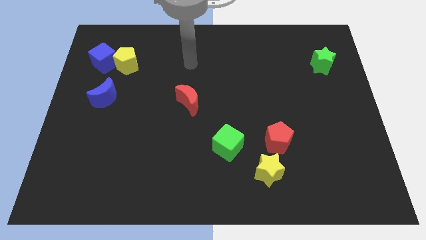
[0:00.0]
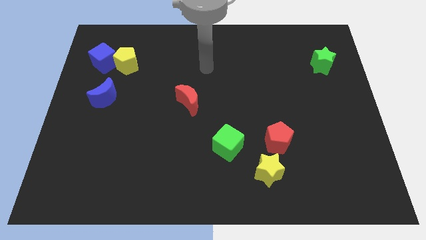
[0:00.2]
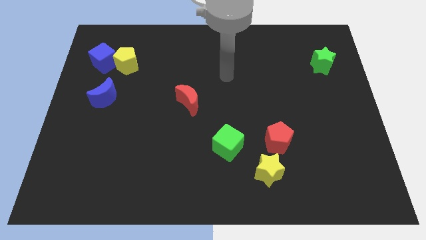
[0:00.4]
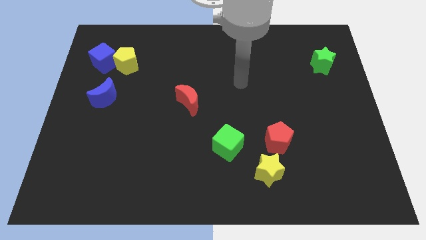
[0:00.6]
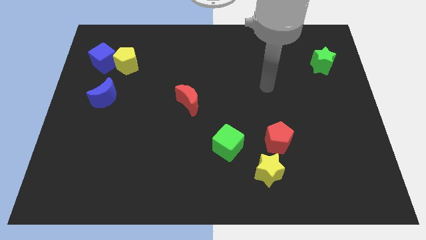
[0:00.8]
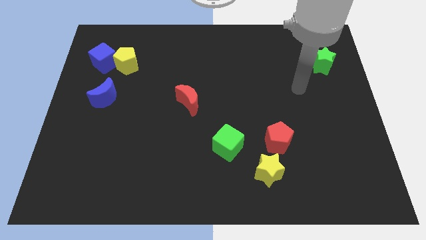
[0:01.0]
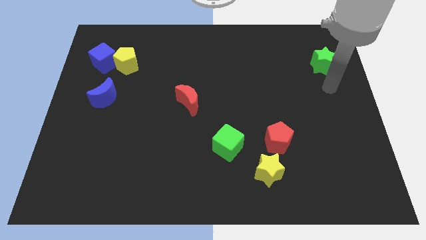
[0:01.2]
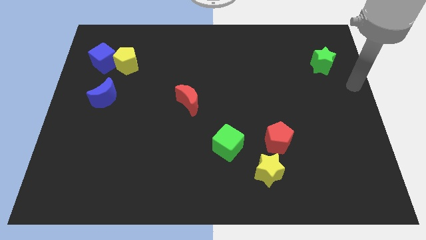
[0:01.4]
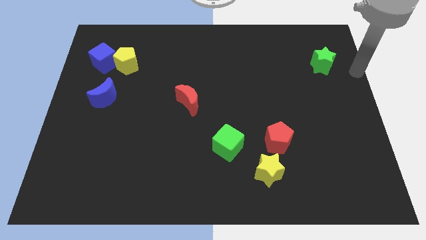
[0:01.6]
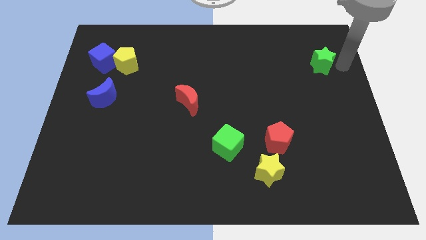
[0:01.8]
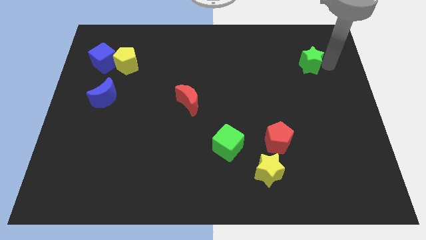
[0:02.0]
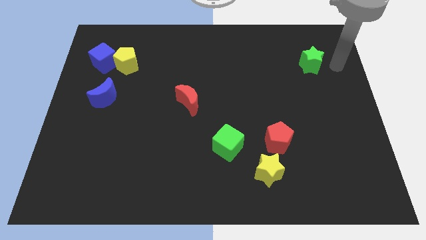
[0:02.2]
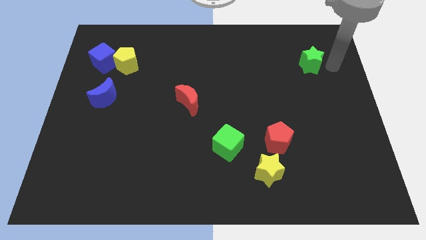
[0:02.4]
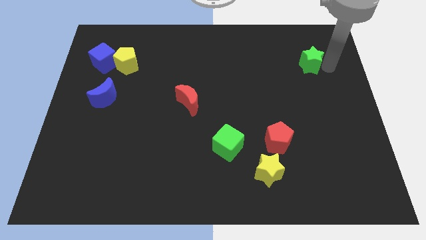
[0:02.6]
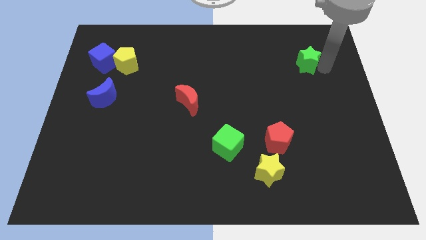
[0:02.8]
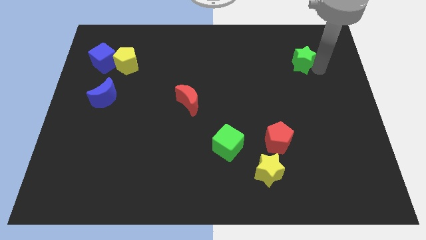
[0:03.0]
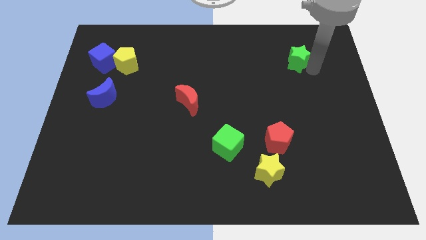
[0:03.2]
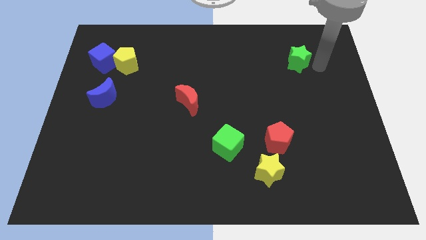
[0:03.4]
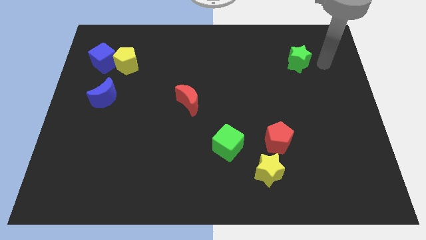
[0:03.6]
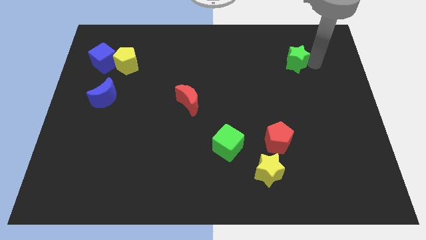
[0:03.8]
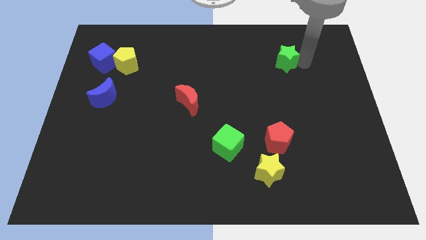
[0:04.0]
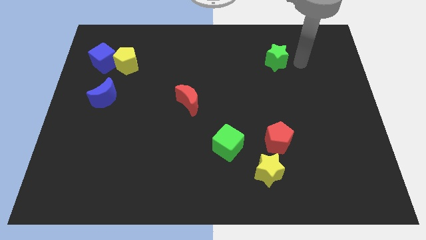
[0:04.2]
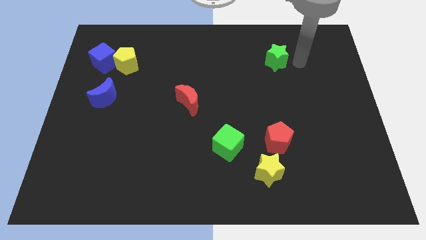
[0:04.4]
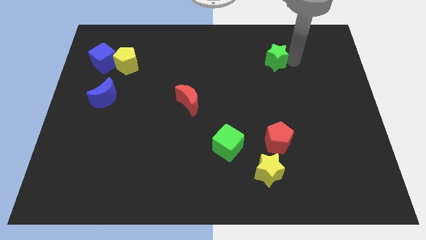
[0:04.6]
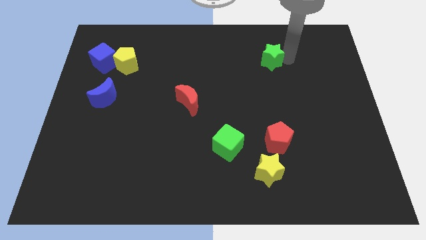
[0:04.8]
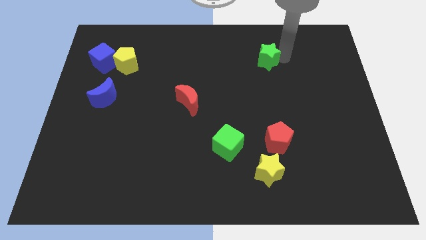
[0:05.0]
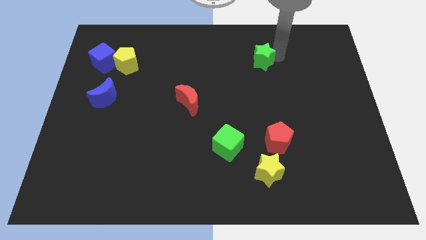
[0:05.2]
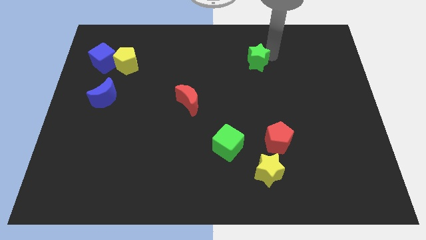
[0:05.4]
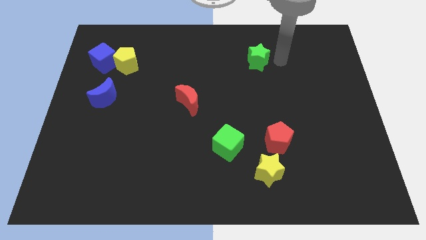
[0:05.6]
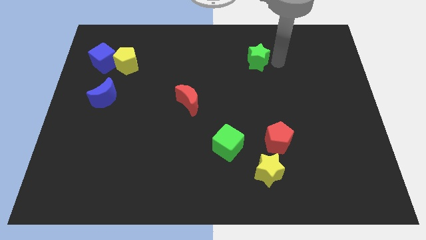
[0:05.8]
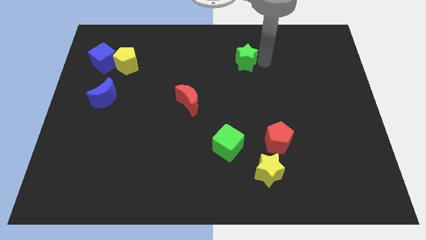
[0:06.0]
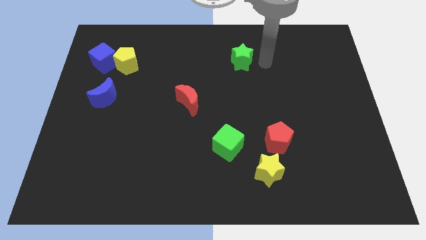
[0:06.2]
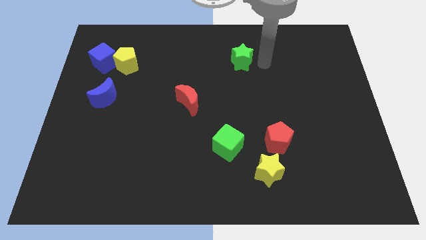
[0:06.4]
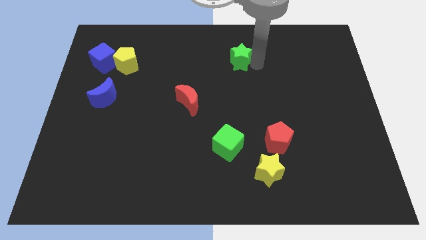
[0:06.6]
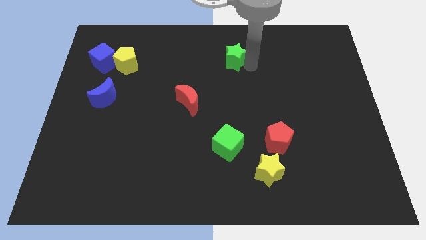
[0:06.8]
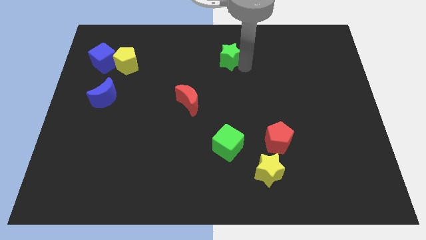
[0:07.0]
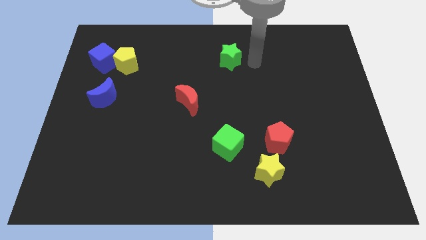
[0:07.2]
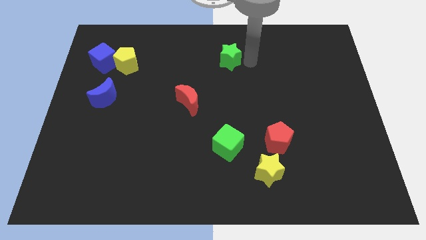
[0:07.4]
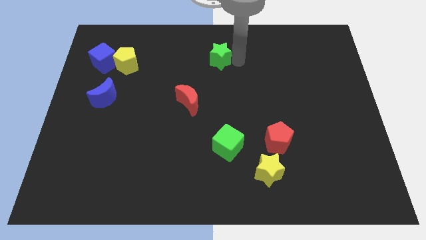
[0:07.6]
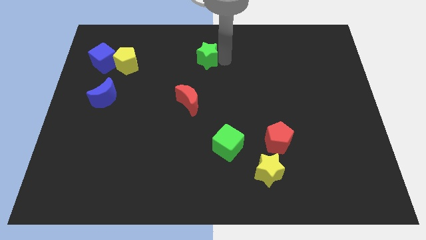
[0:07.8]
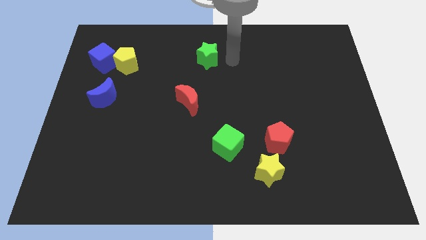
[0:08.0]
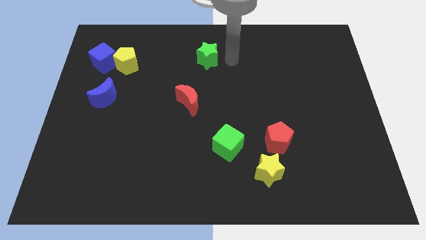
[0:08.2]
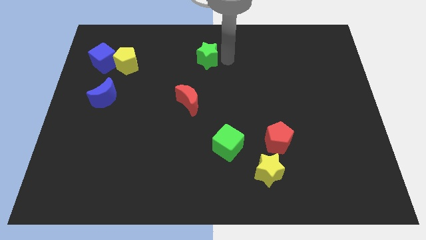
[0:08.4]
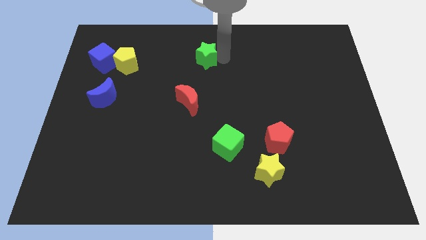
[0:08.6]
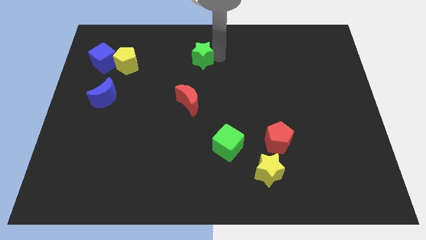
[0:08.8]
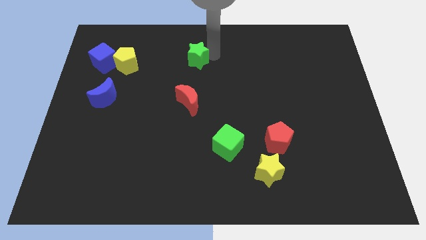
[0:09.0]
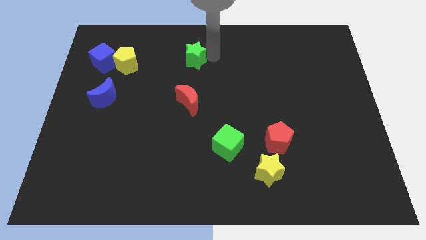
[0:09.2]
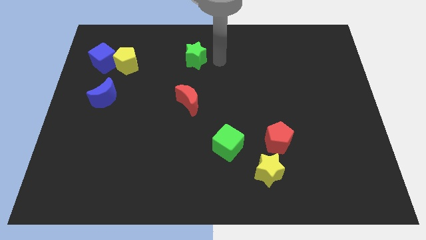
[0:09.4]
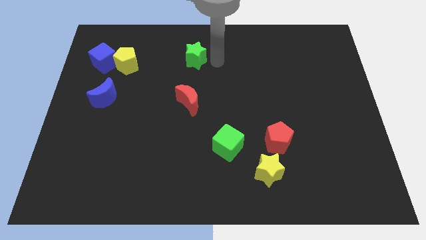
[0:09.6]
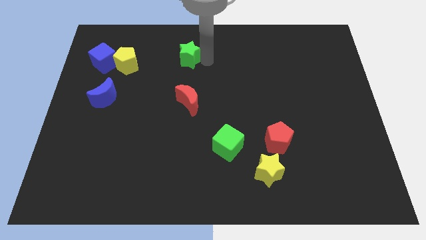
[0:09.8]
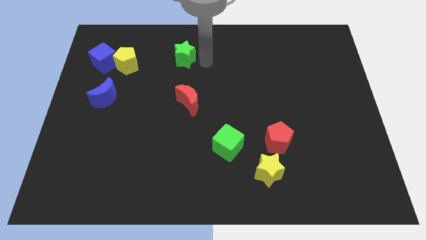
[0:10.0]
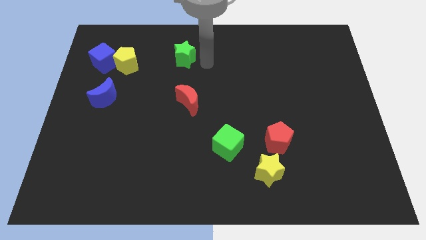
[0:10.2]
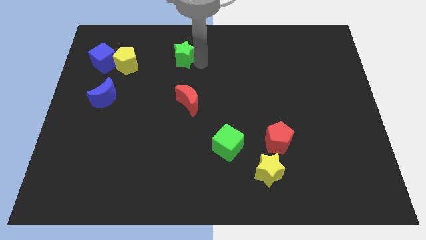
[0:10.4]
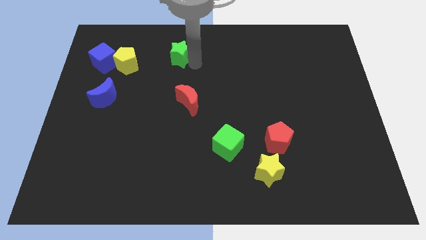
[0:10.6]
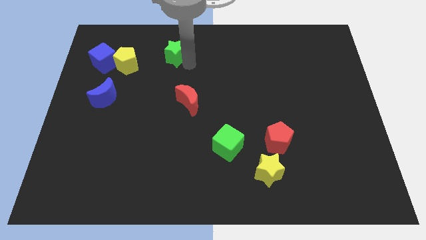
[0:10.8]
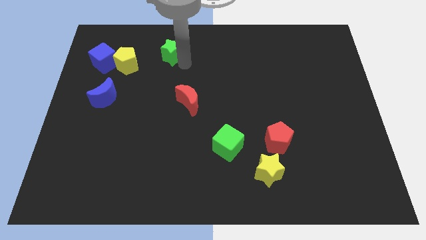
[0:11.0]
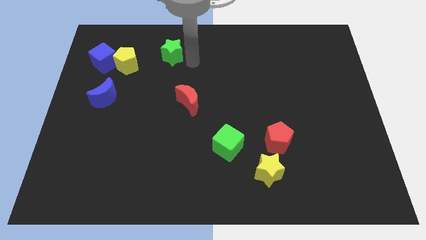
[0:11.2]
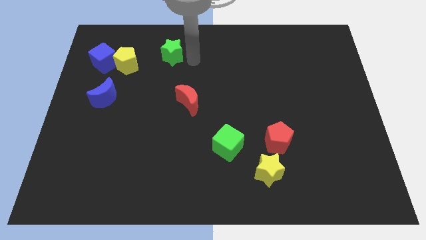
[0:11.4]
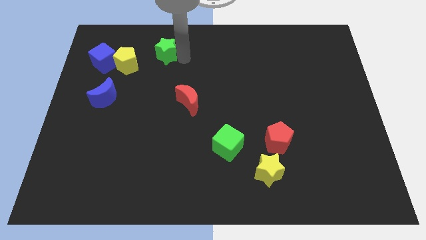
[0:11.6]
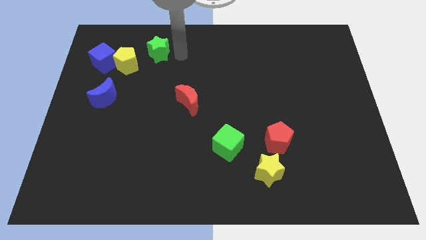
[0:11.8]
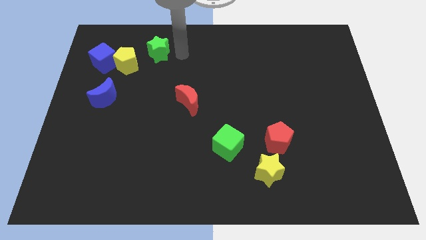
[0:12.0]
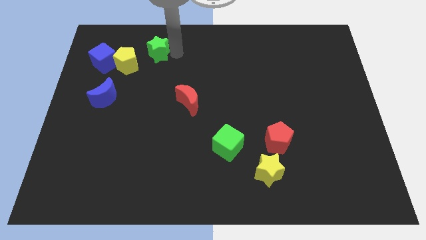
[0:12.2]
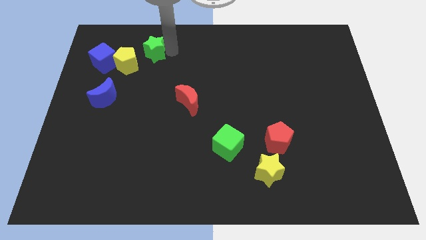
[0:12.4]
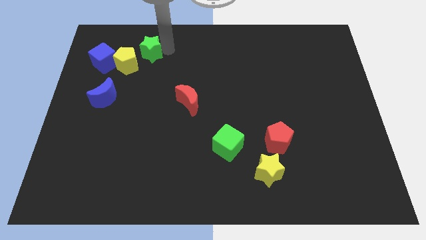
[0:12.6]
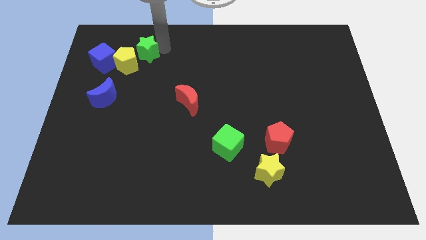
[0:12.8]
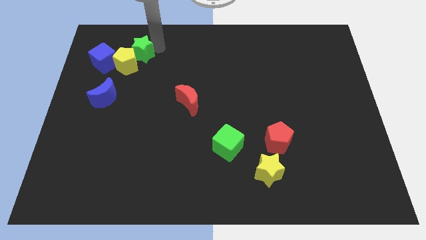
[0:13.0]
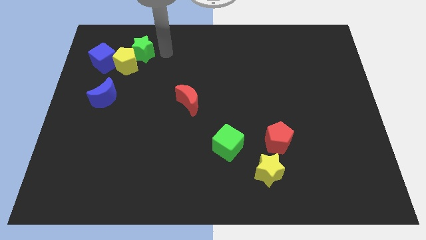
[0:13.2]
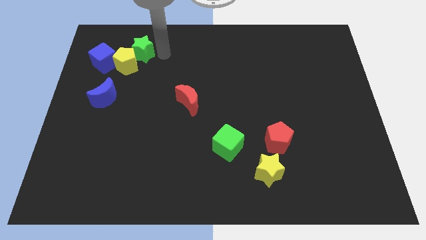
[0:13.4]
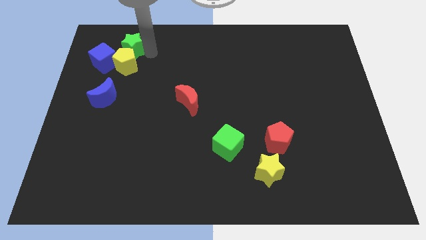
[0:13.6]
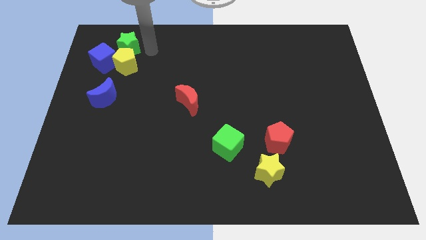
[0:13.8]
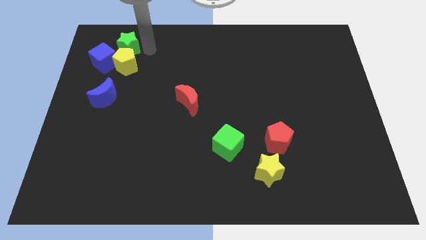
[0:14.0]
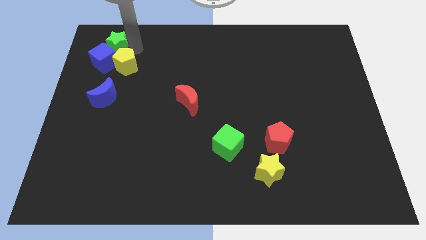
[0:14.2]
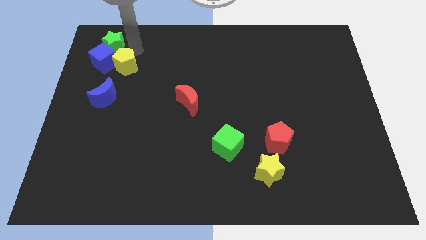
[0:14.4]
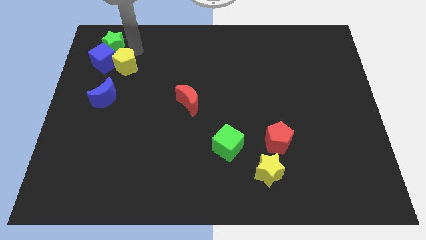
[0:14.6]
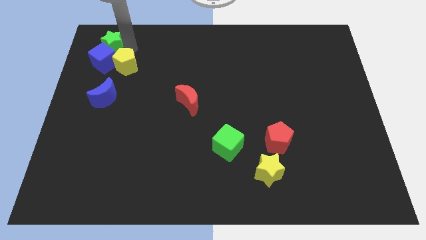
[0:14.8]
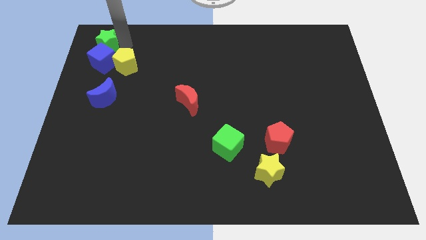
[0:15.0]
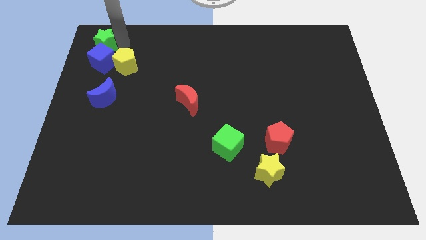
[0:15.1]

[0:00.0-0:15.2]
move the green star to the top left of the board
